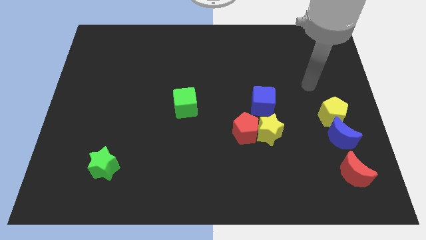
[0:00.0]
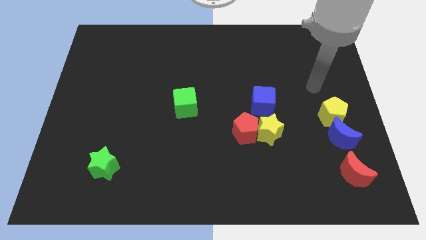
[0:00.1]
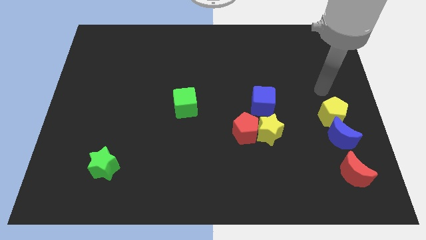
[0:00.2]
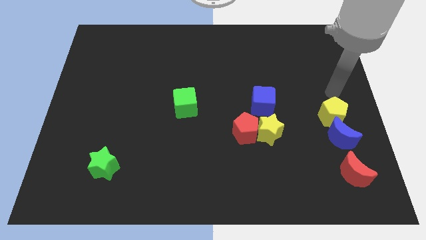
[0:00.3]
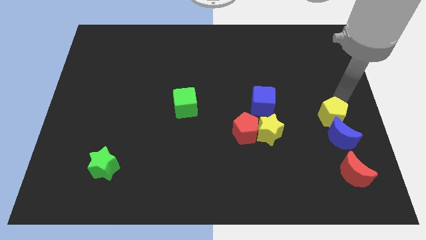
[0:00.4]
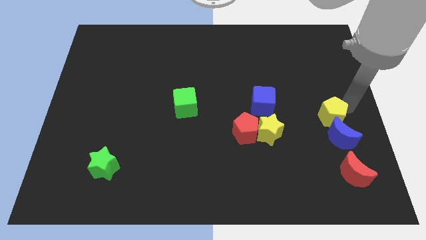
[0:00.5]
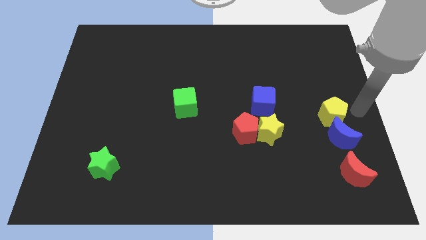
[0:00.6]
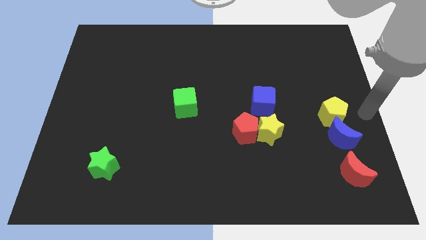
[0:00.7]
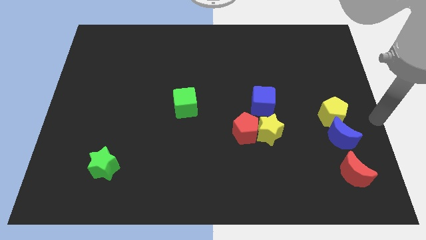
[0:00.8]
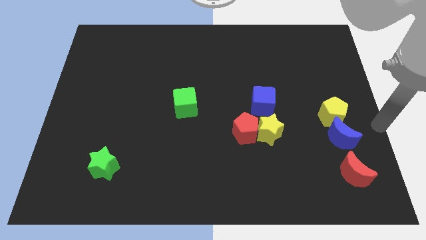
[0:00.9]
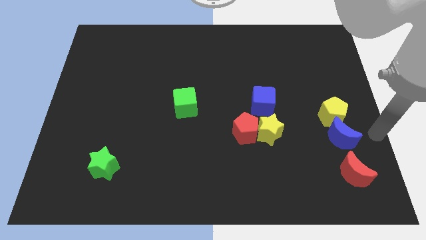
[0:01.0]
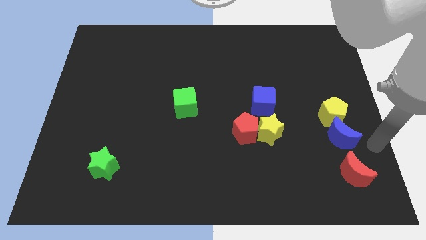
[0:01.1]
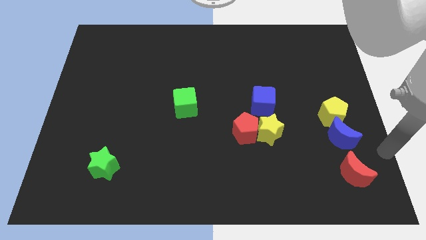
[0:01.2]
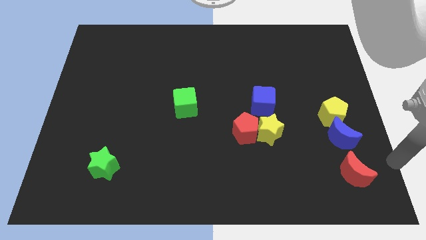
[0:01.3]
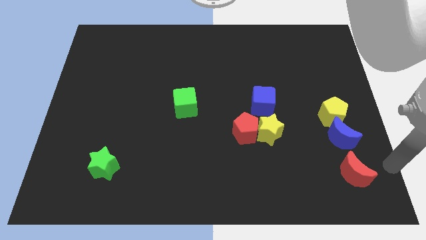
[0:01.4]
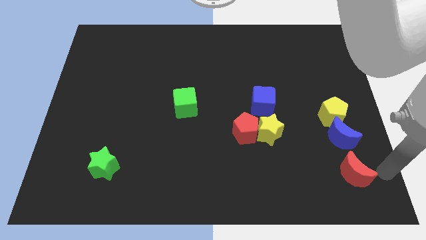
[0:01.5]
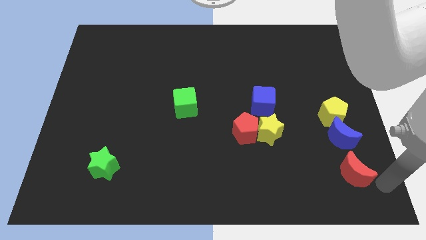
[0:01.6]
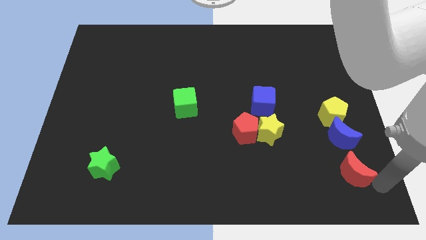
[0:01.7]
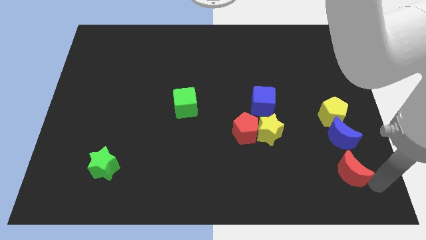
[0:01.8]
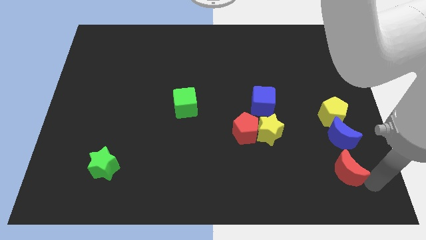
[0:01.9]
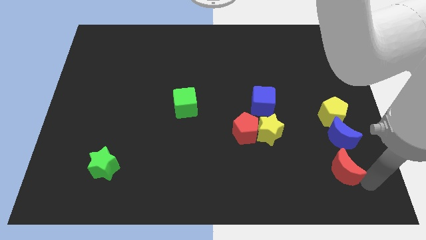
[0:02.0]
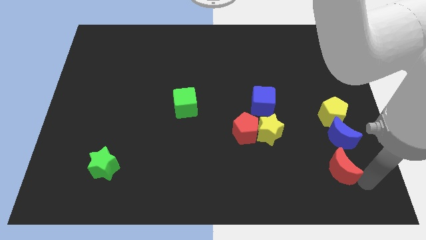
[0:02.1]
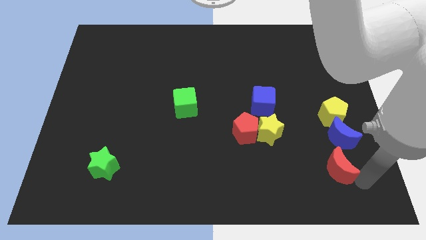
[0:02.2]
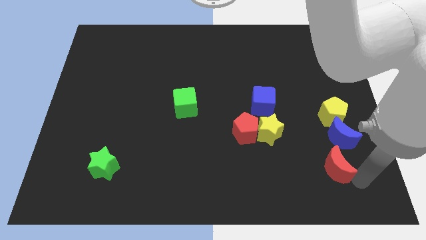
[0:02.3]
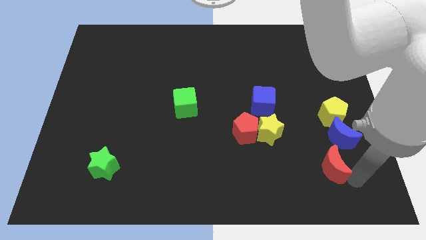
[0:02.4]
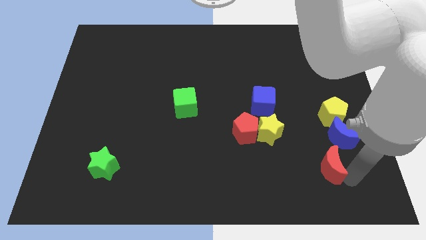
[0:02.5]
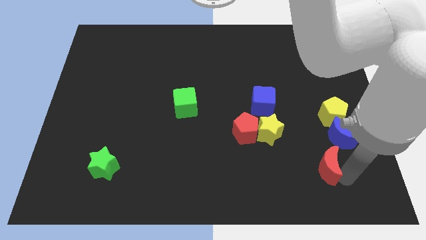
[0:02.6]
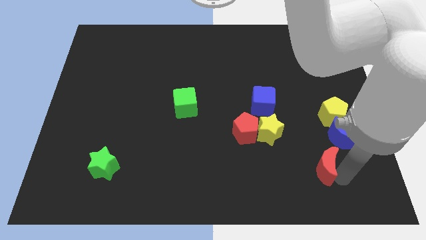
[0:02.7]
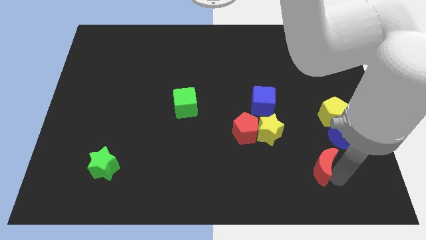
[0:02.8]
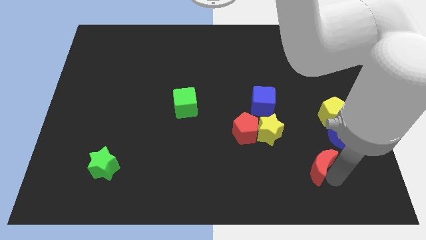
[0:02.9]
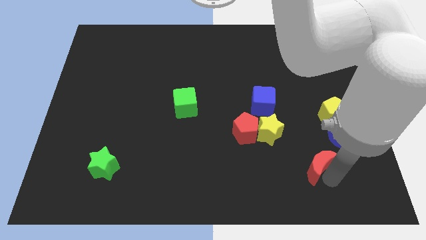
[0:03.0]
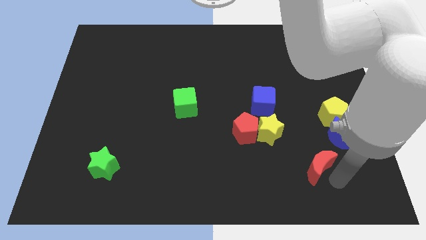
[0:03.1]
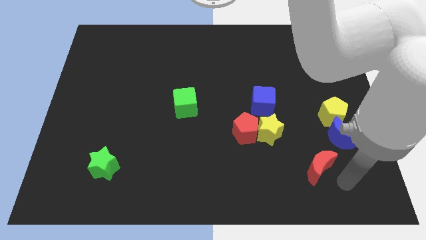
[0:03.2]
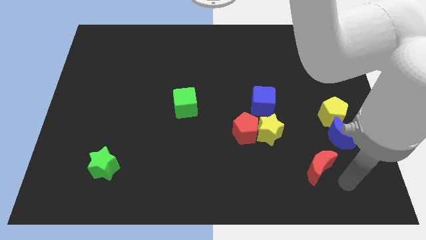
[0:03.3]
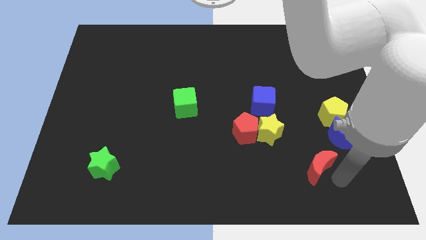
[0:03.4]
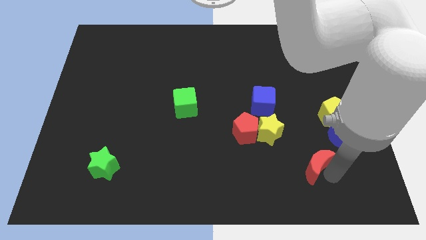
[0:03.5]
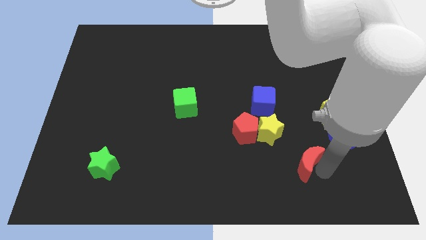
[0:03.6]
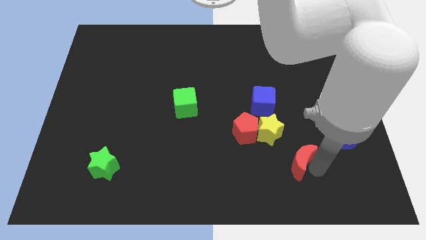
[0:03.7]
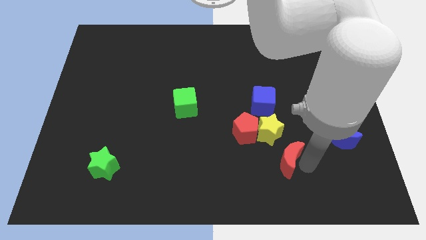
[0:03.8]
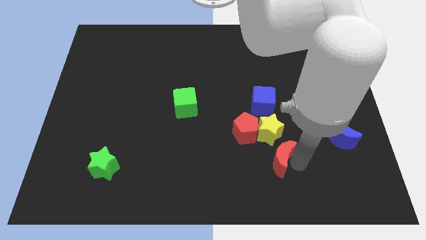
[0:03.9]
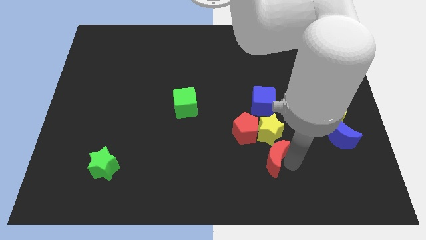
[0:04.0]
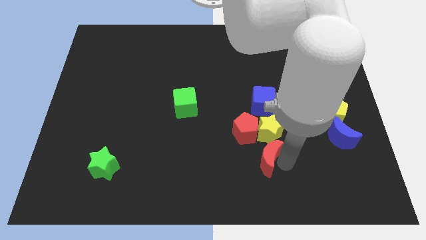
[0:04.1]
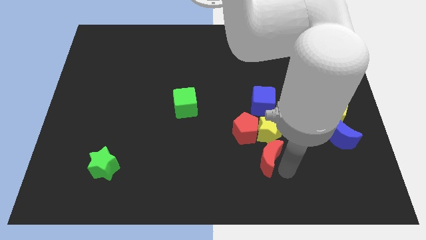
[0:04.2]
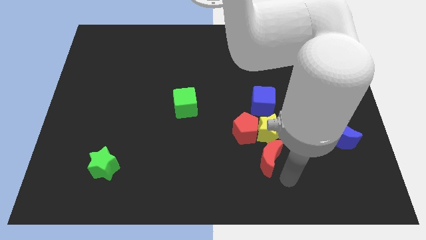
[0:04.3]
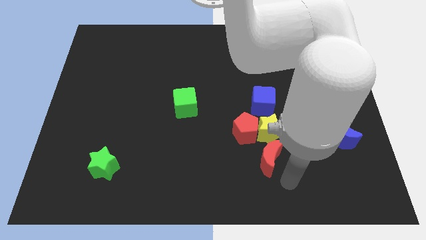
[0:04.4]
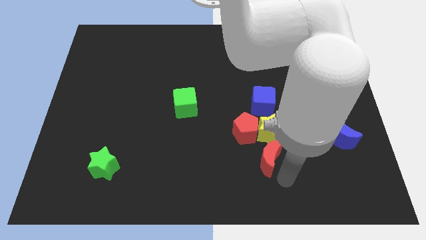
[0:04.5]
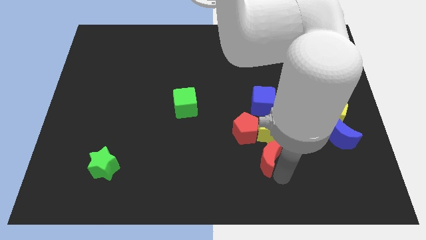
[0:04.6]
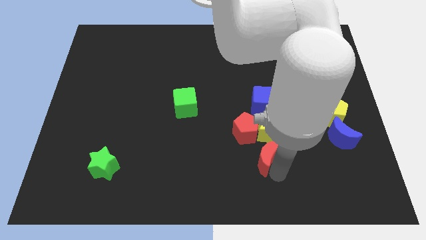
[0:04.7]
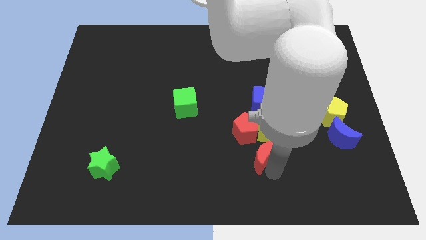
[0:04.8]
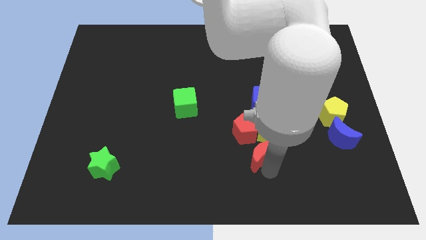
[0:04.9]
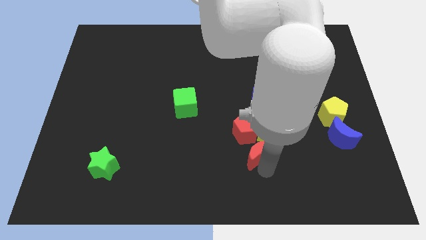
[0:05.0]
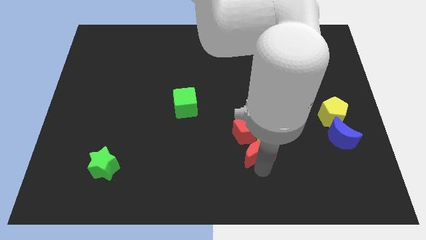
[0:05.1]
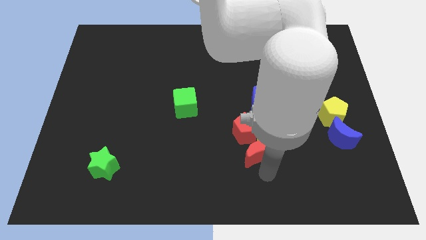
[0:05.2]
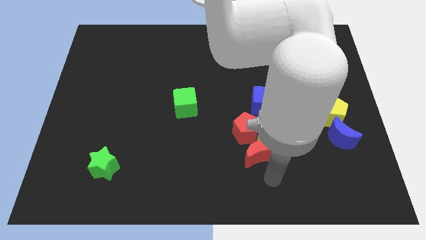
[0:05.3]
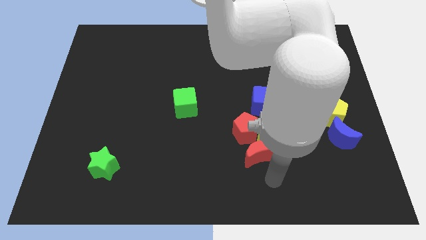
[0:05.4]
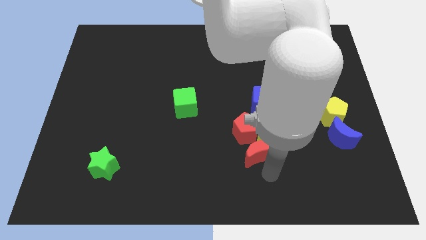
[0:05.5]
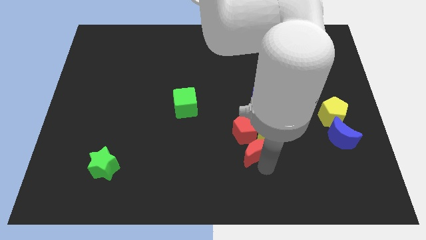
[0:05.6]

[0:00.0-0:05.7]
move the red moon next to the red pentagon

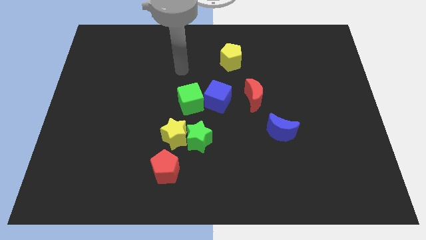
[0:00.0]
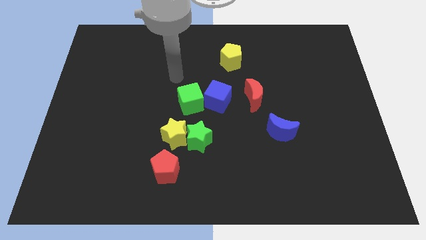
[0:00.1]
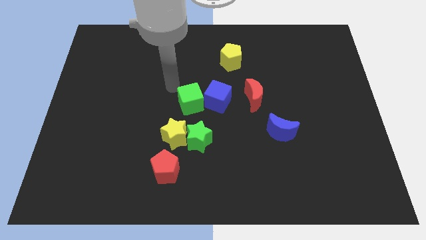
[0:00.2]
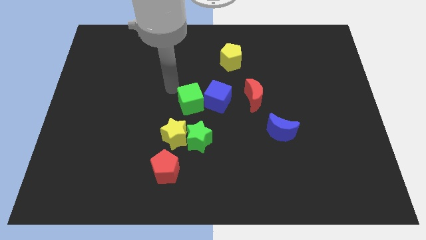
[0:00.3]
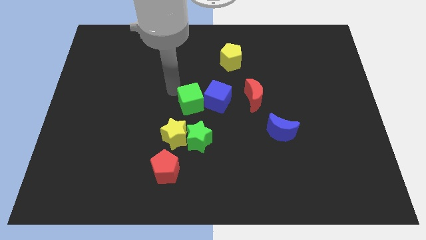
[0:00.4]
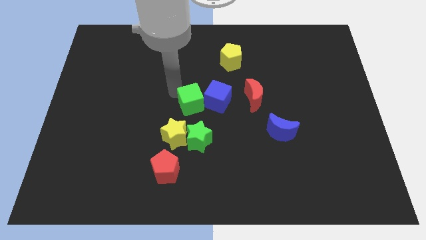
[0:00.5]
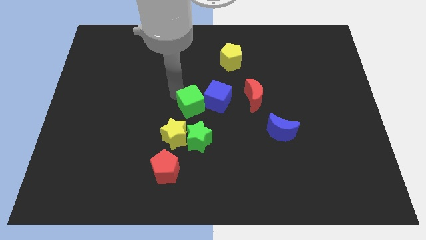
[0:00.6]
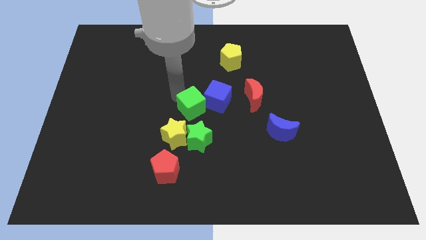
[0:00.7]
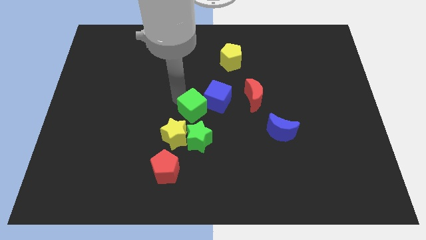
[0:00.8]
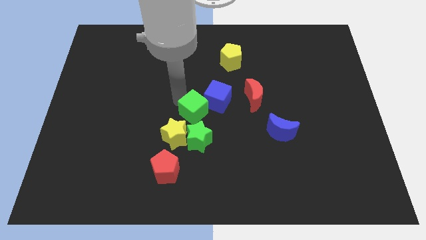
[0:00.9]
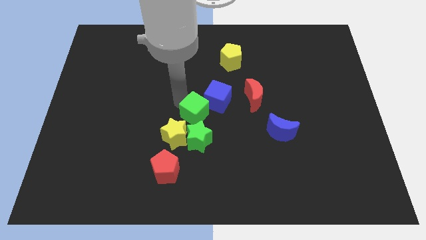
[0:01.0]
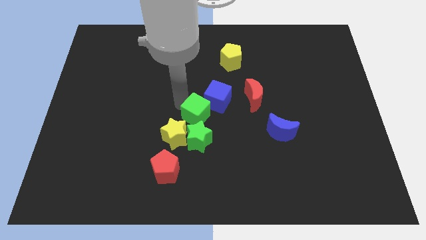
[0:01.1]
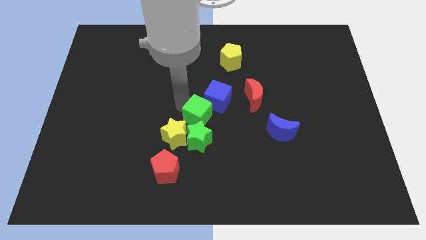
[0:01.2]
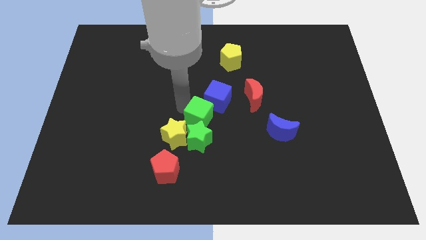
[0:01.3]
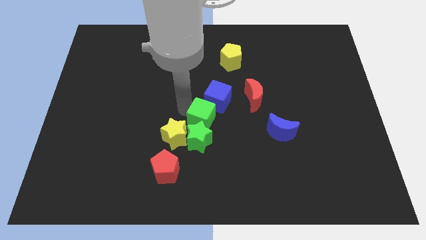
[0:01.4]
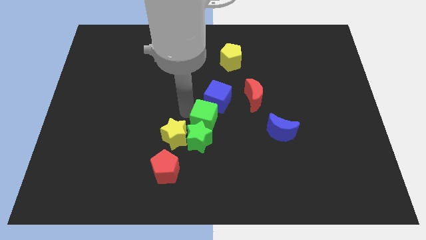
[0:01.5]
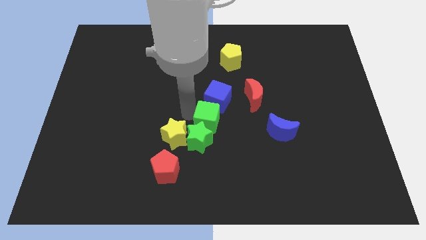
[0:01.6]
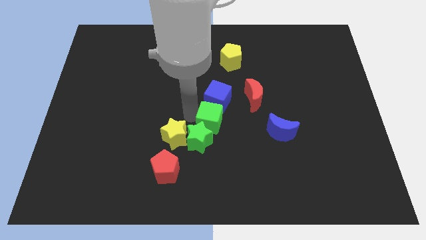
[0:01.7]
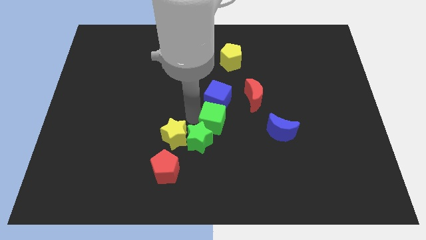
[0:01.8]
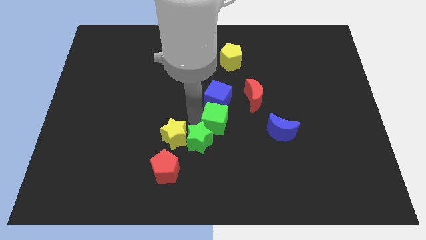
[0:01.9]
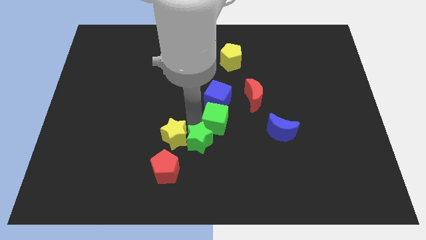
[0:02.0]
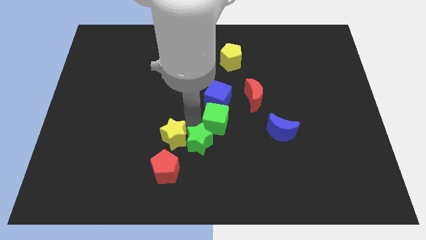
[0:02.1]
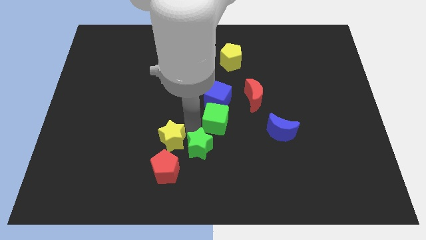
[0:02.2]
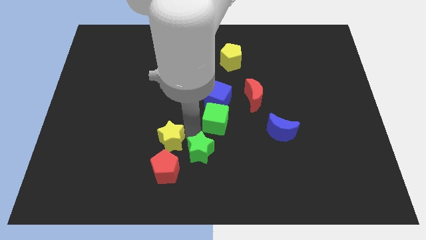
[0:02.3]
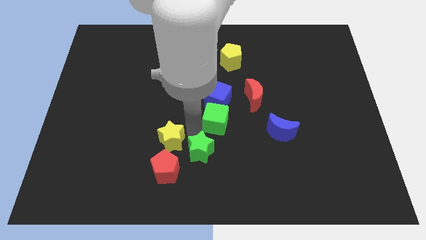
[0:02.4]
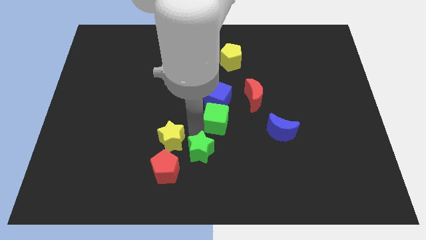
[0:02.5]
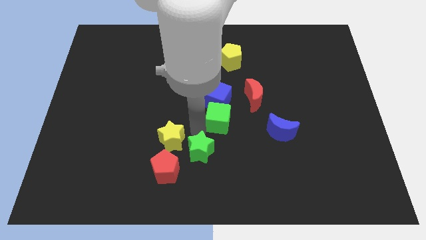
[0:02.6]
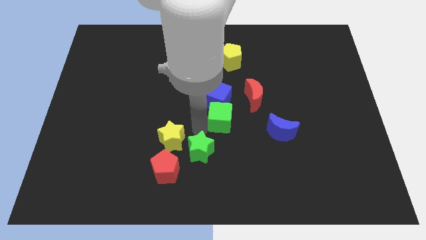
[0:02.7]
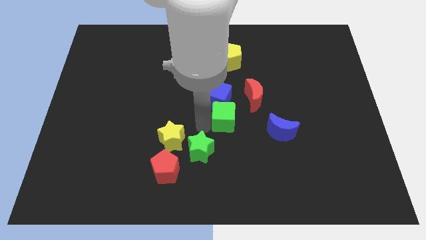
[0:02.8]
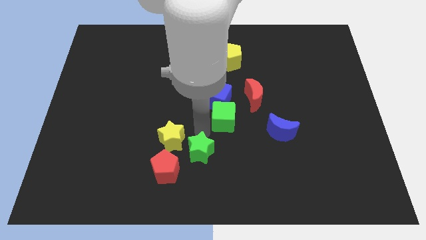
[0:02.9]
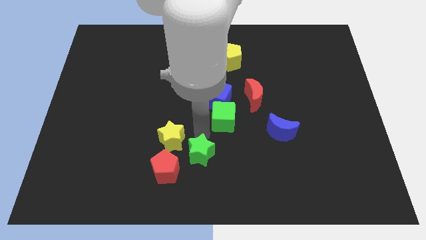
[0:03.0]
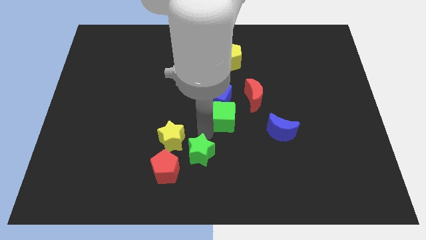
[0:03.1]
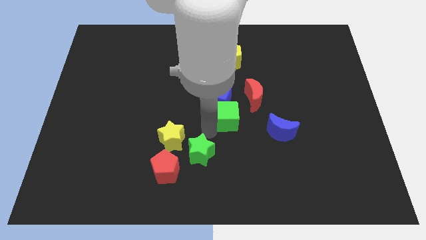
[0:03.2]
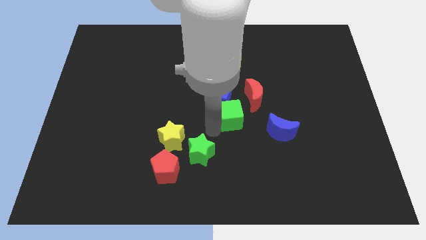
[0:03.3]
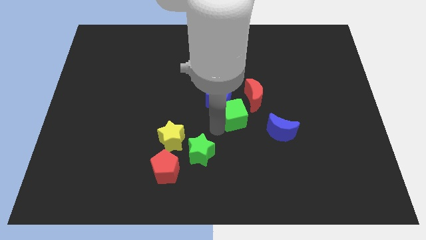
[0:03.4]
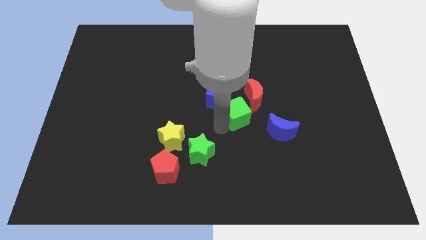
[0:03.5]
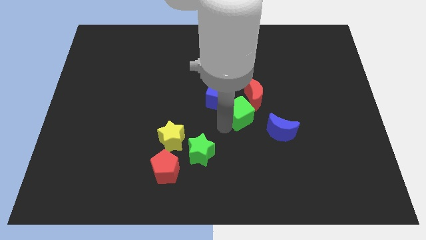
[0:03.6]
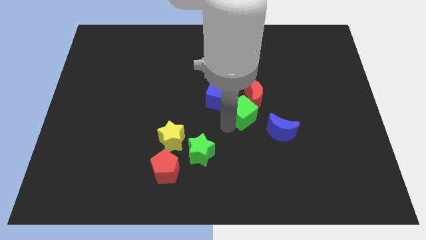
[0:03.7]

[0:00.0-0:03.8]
slide the green cube towards the red moon
